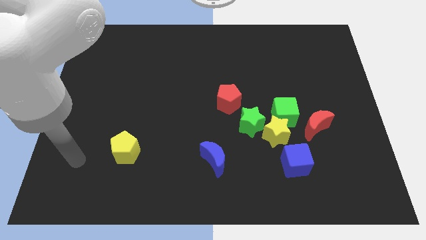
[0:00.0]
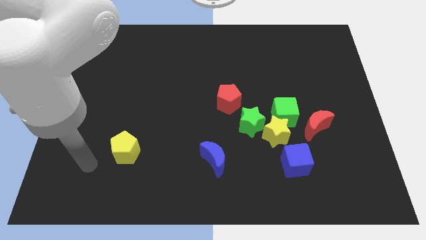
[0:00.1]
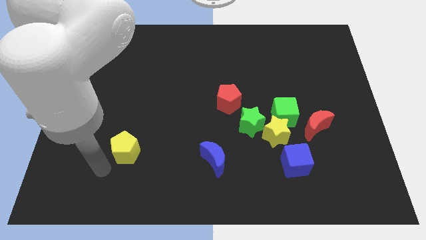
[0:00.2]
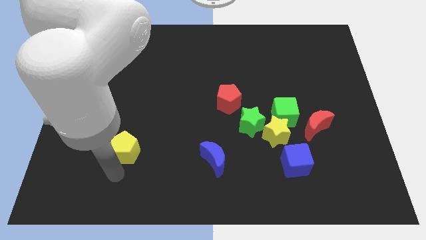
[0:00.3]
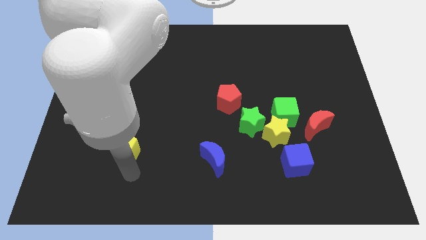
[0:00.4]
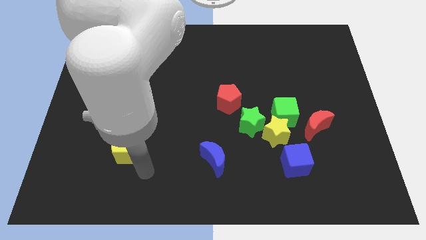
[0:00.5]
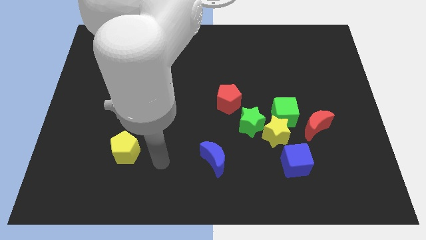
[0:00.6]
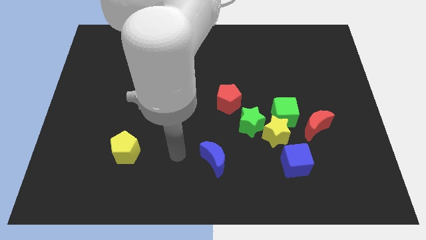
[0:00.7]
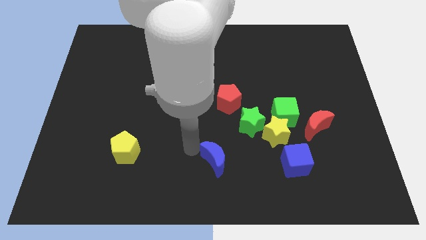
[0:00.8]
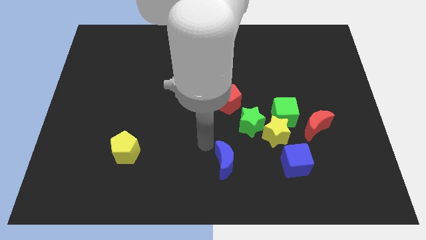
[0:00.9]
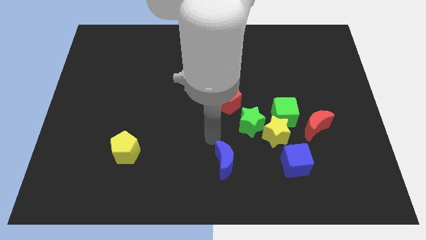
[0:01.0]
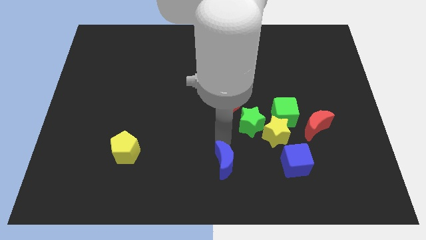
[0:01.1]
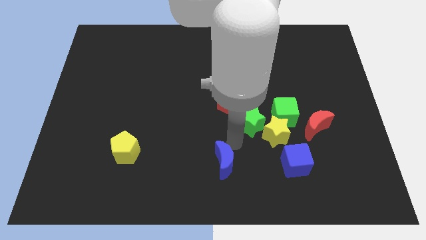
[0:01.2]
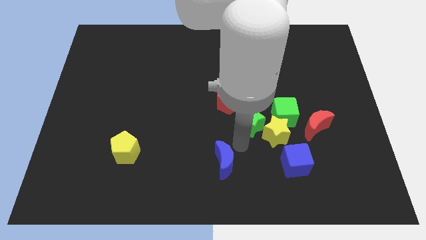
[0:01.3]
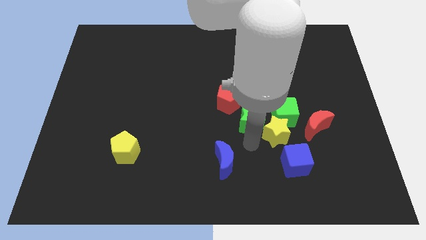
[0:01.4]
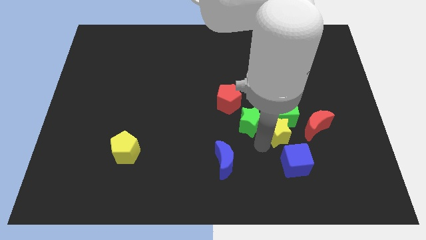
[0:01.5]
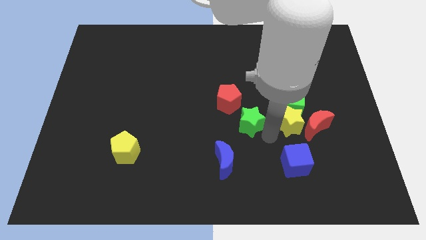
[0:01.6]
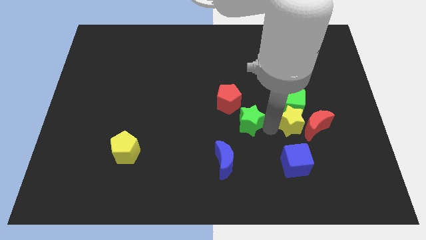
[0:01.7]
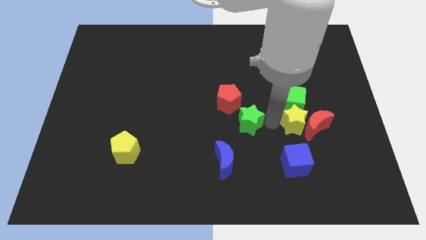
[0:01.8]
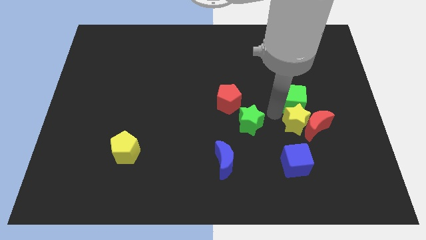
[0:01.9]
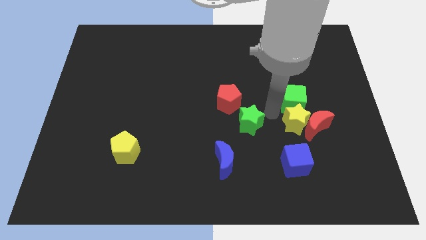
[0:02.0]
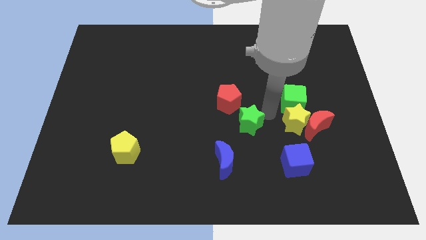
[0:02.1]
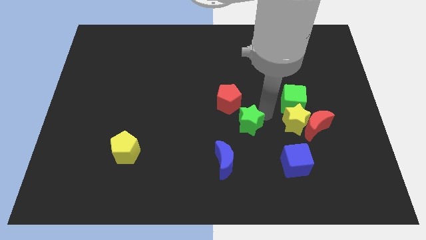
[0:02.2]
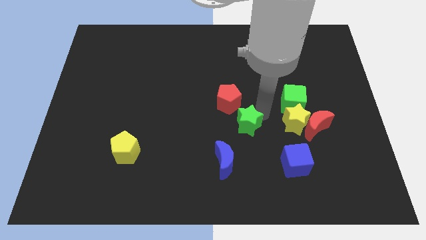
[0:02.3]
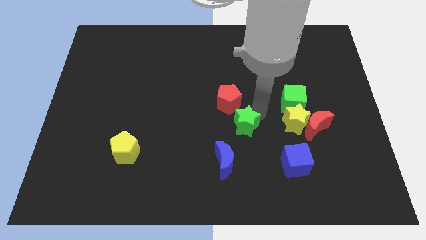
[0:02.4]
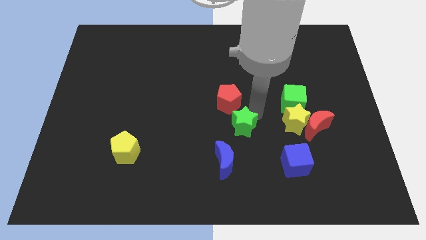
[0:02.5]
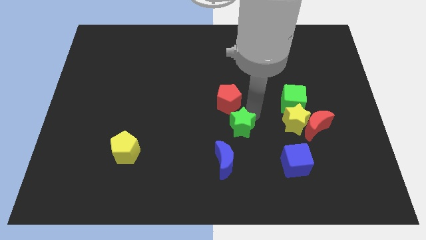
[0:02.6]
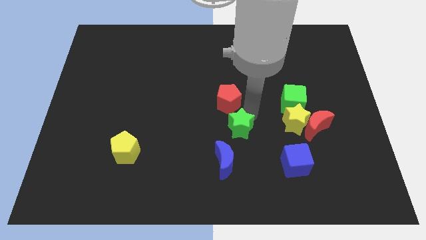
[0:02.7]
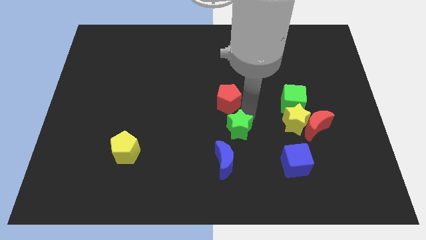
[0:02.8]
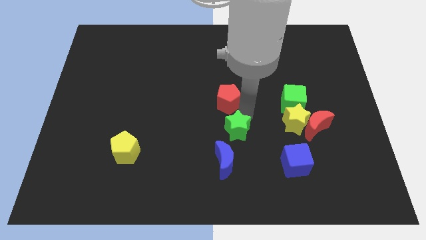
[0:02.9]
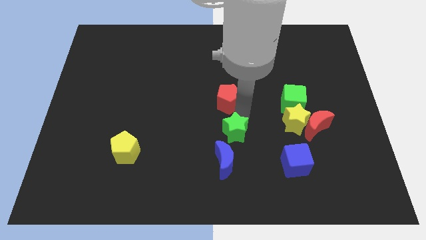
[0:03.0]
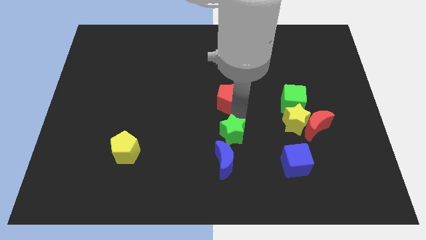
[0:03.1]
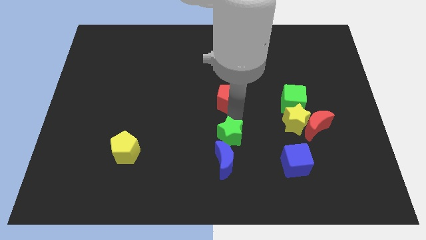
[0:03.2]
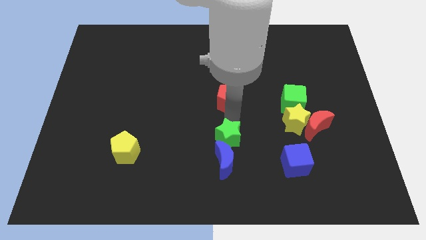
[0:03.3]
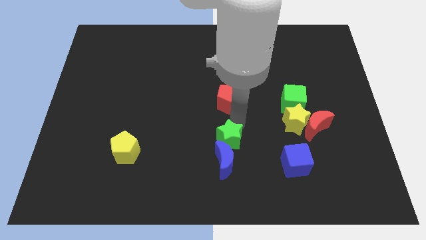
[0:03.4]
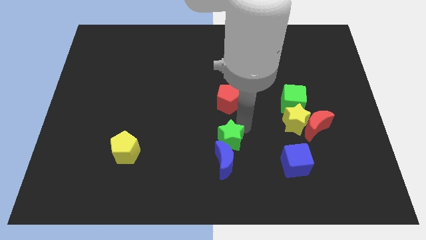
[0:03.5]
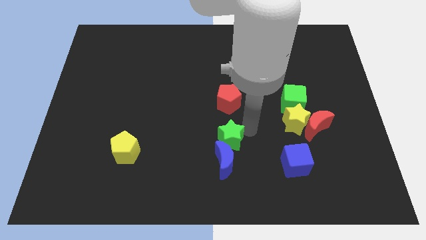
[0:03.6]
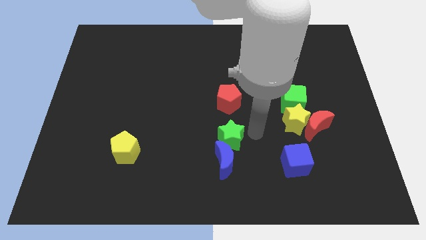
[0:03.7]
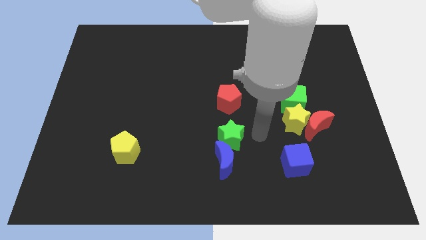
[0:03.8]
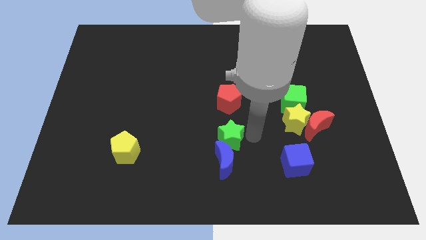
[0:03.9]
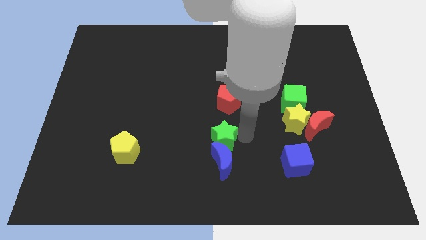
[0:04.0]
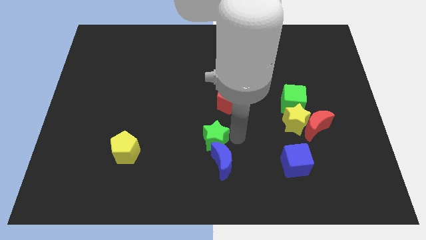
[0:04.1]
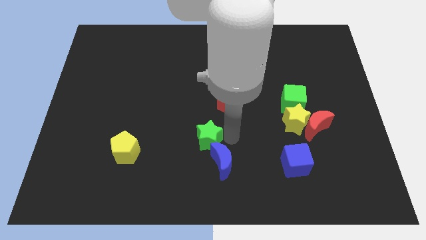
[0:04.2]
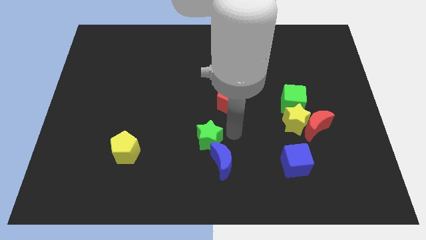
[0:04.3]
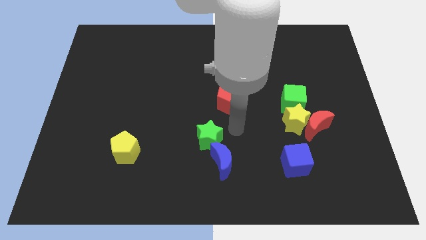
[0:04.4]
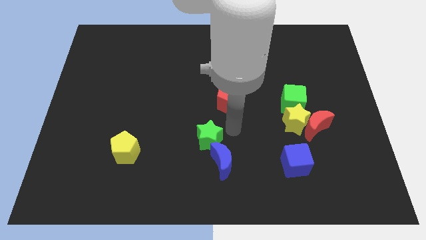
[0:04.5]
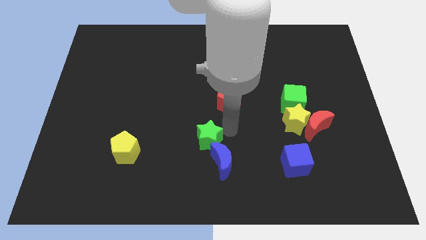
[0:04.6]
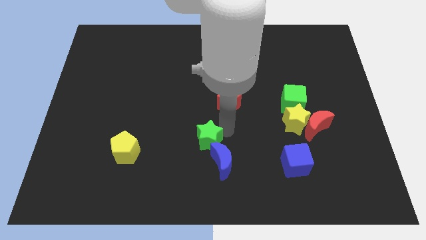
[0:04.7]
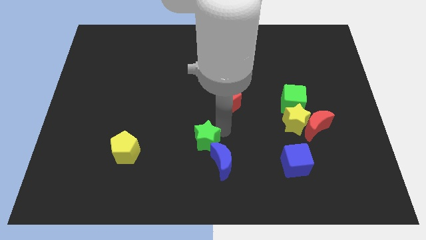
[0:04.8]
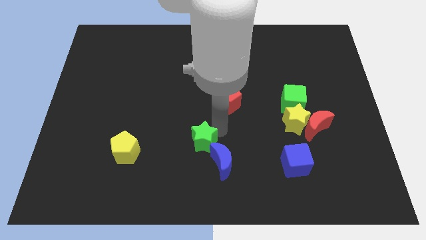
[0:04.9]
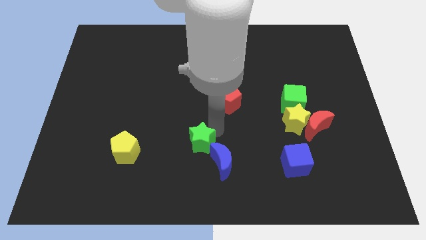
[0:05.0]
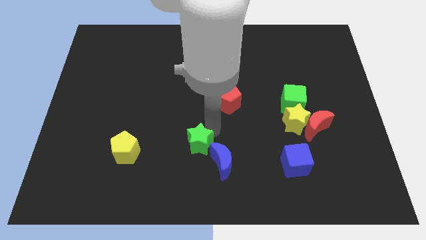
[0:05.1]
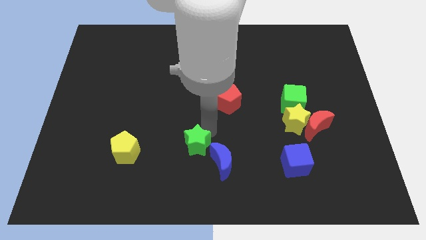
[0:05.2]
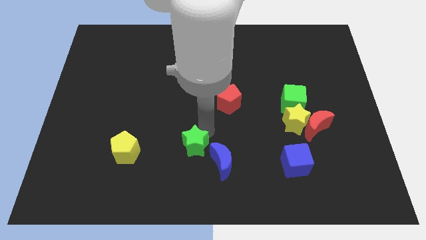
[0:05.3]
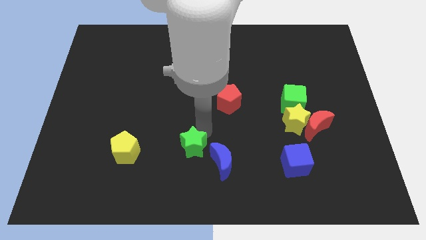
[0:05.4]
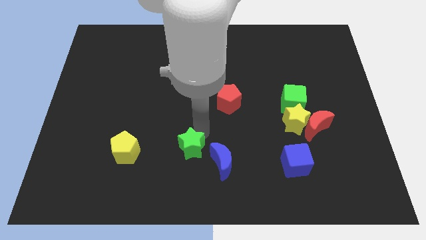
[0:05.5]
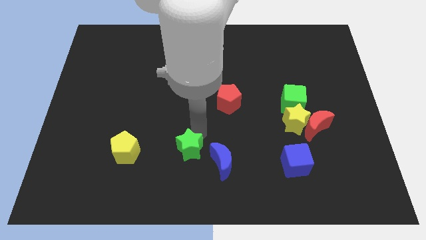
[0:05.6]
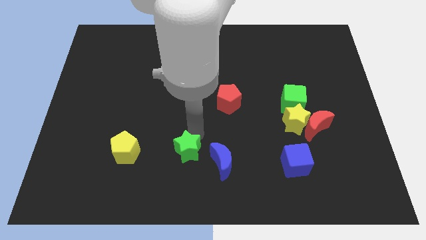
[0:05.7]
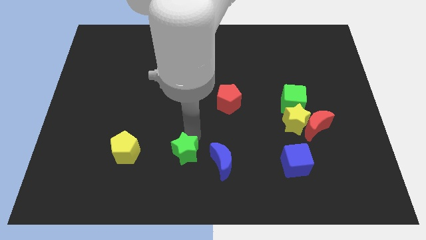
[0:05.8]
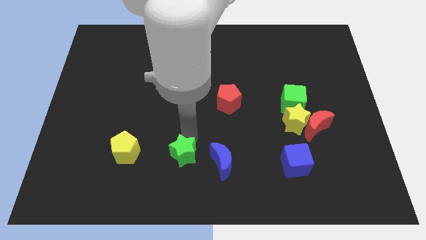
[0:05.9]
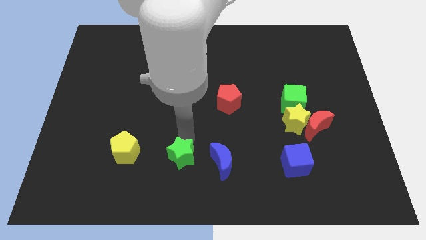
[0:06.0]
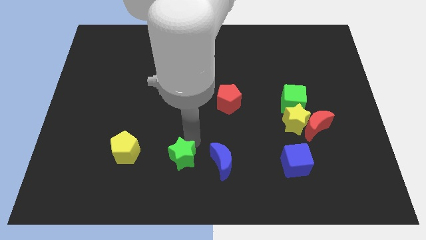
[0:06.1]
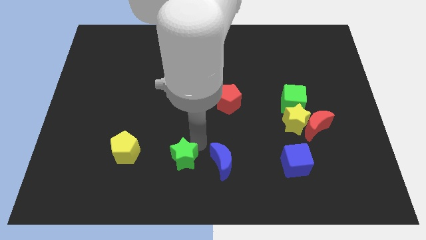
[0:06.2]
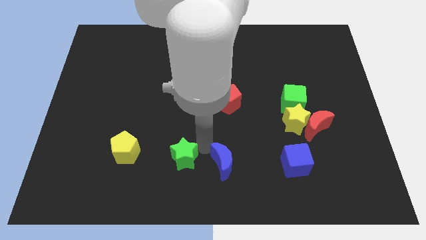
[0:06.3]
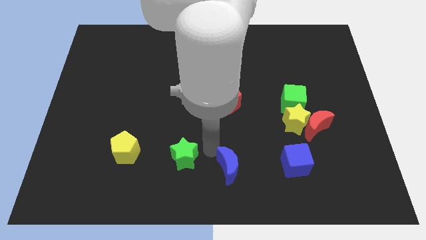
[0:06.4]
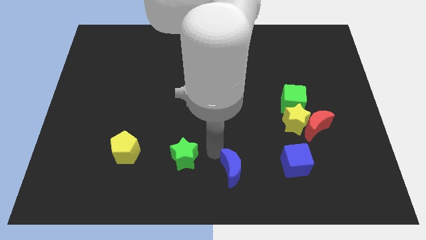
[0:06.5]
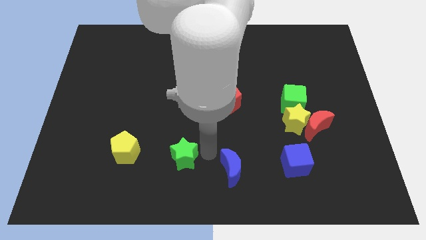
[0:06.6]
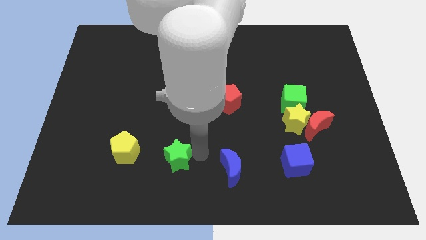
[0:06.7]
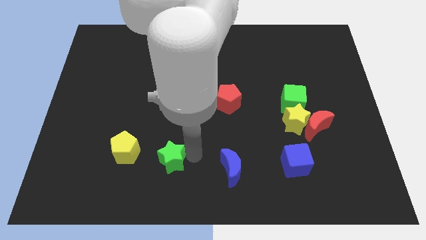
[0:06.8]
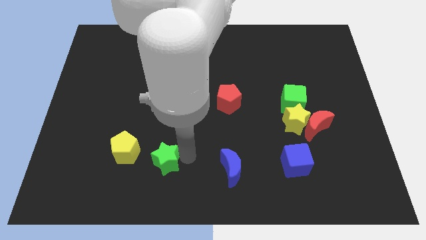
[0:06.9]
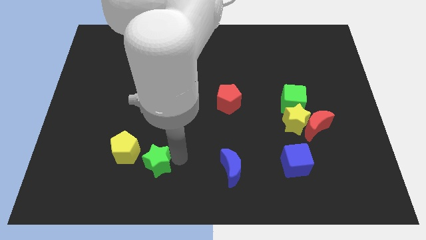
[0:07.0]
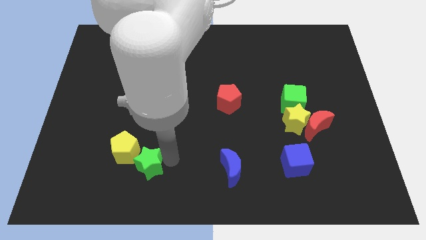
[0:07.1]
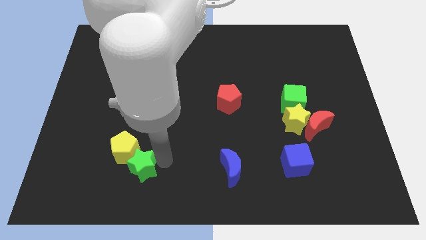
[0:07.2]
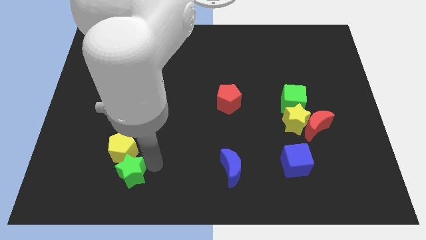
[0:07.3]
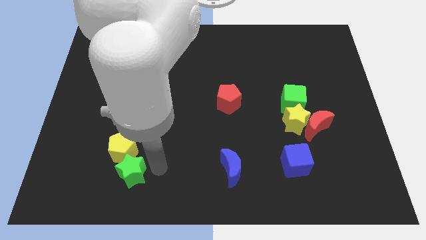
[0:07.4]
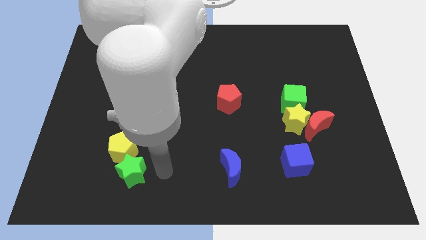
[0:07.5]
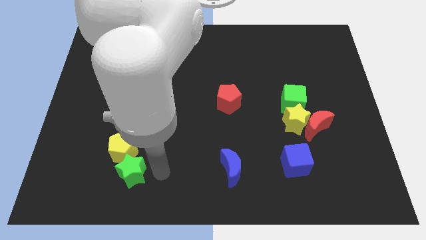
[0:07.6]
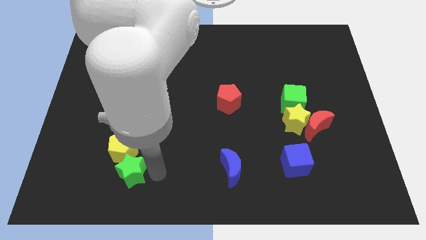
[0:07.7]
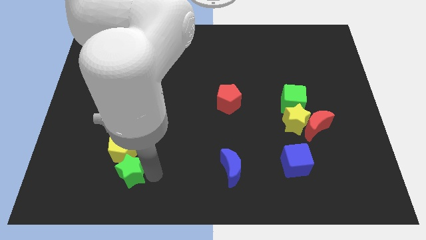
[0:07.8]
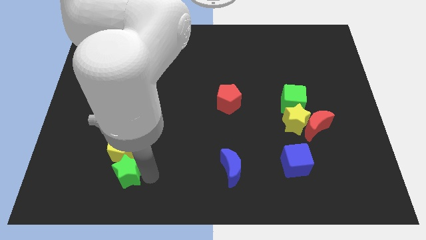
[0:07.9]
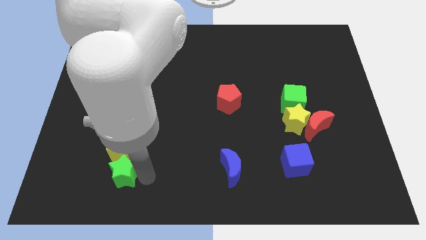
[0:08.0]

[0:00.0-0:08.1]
push the green star to the bottom left of the yellow pentagon

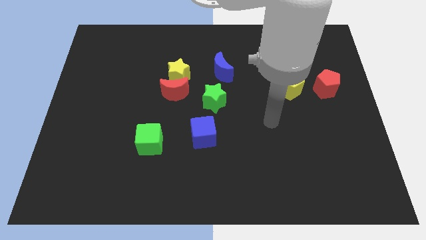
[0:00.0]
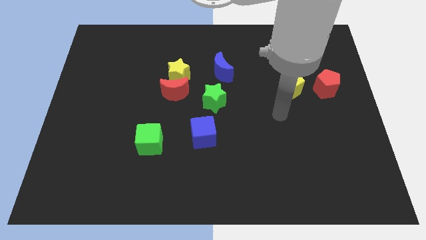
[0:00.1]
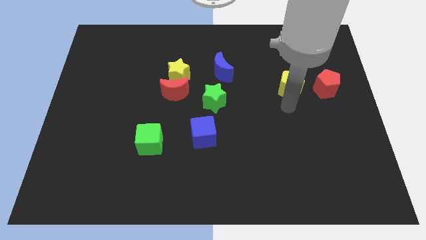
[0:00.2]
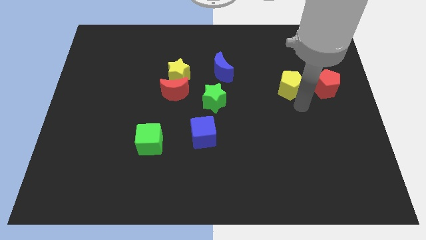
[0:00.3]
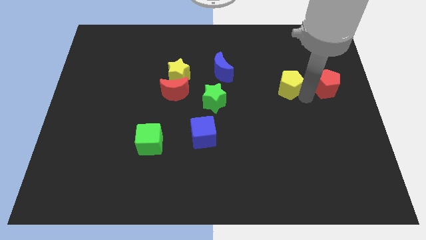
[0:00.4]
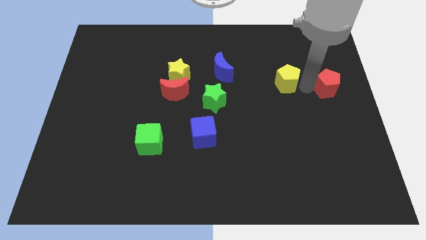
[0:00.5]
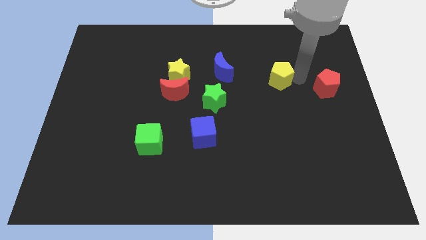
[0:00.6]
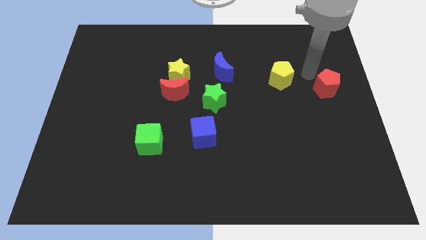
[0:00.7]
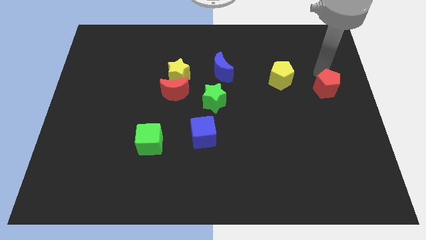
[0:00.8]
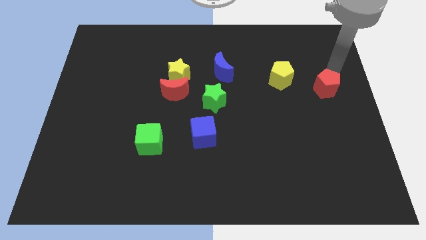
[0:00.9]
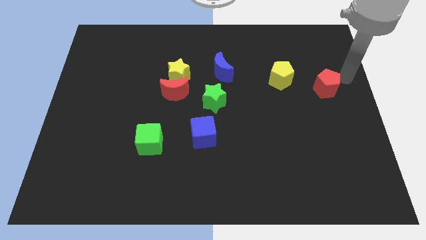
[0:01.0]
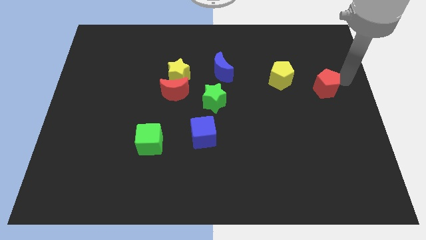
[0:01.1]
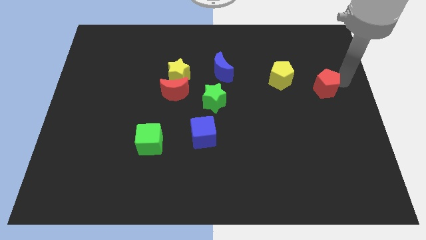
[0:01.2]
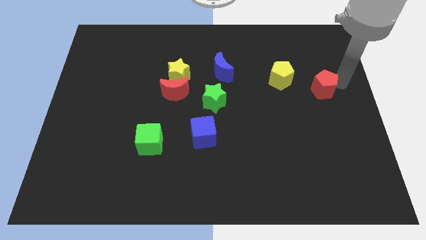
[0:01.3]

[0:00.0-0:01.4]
put the red pentagon to the bottom right of the yellow pentagon
